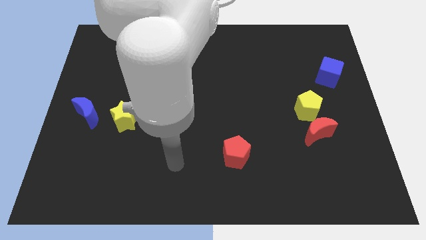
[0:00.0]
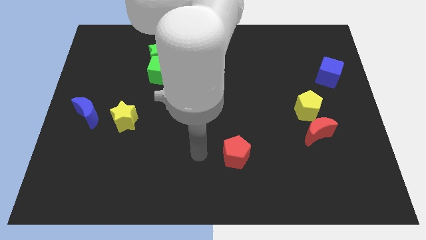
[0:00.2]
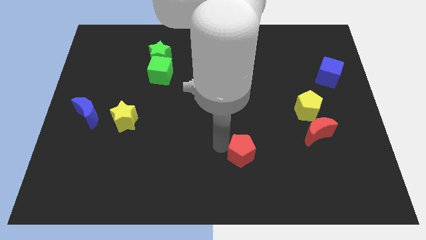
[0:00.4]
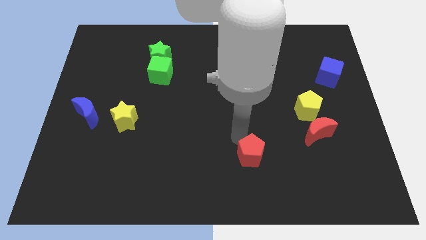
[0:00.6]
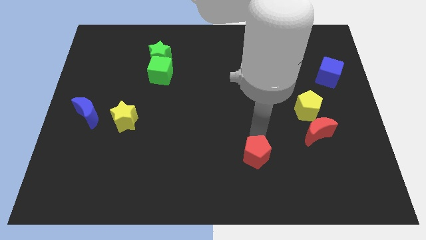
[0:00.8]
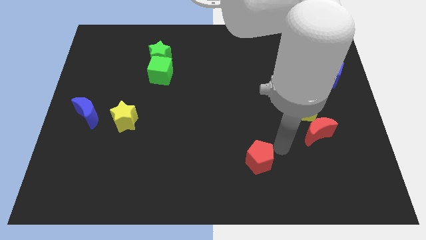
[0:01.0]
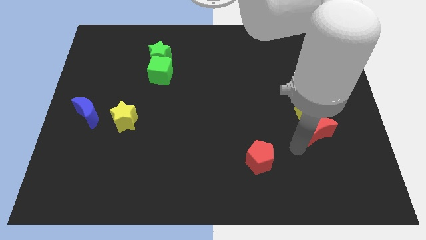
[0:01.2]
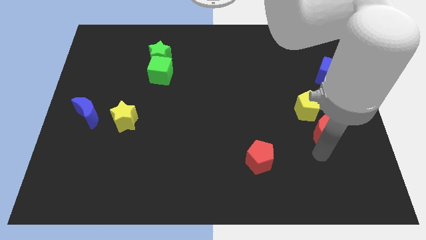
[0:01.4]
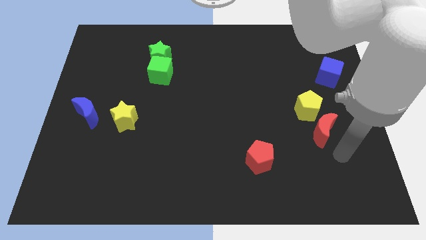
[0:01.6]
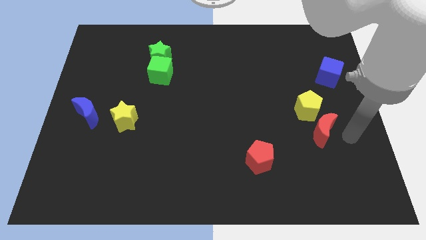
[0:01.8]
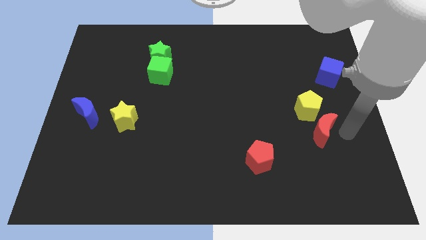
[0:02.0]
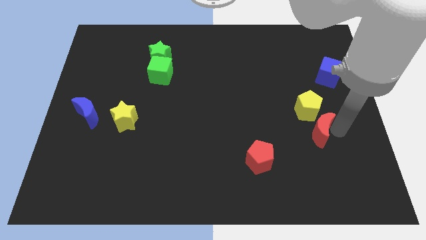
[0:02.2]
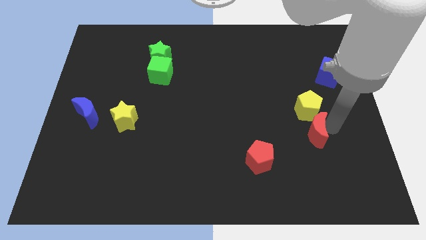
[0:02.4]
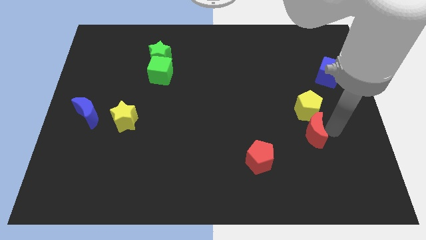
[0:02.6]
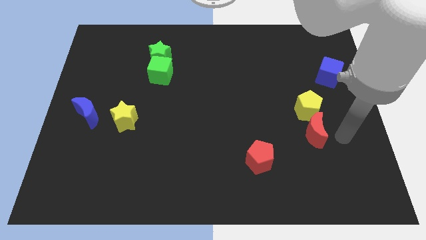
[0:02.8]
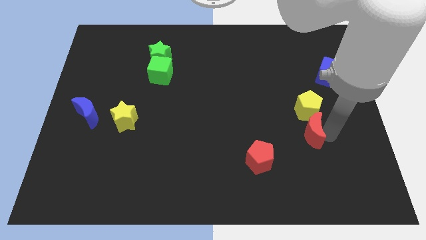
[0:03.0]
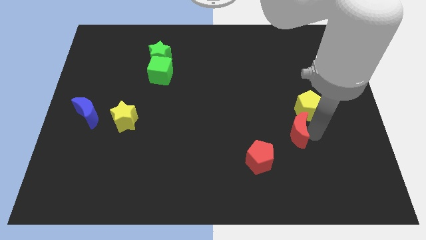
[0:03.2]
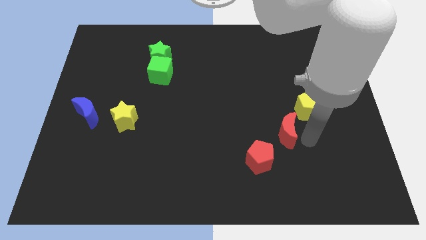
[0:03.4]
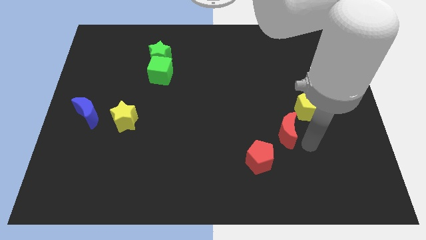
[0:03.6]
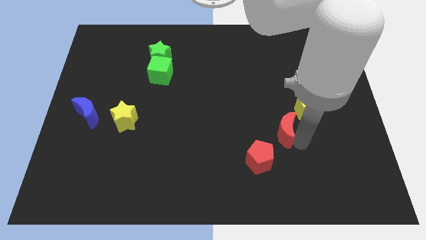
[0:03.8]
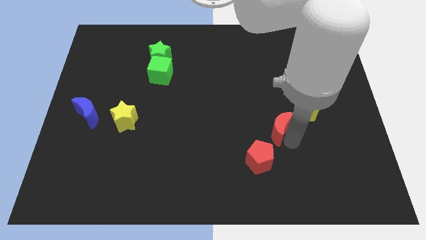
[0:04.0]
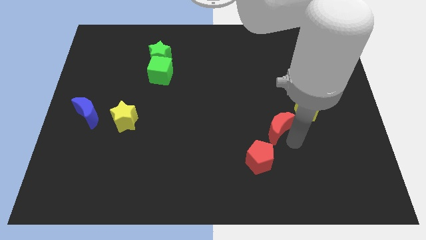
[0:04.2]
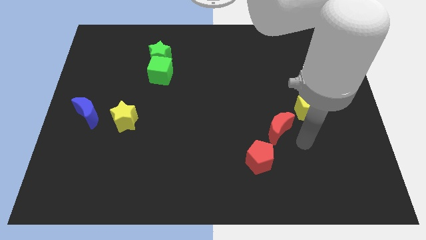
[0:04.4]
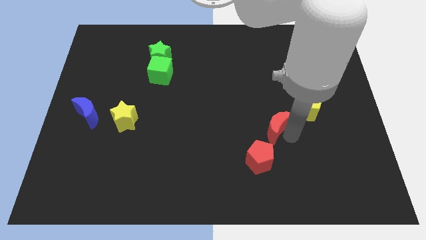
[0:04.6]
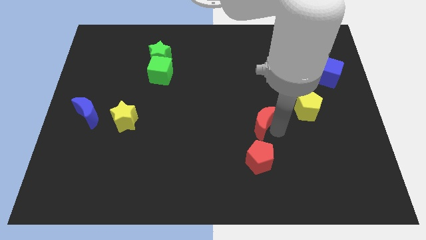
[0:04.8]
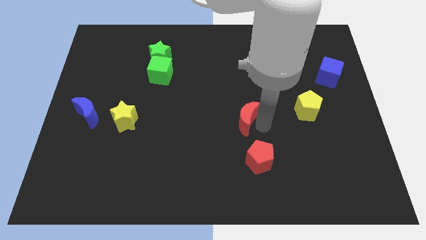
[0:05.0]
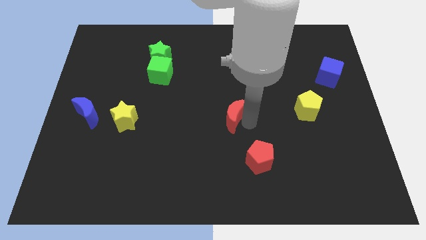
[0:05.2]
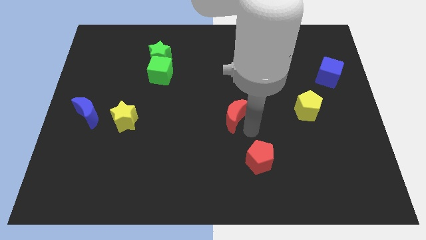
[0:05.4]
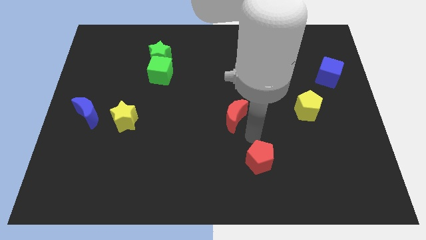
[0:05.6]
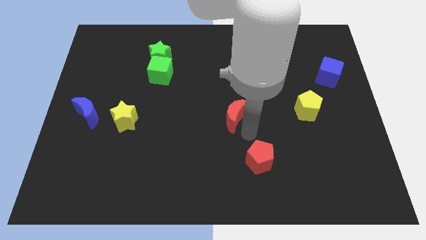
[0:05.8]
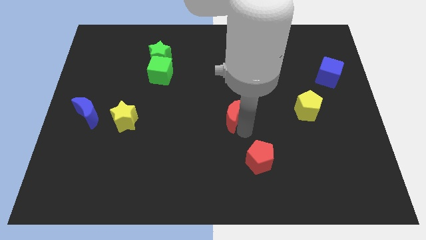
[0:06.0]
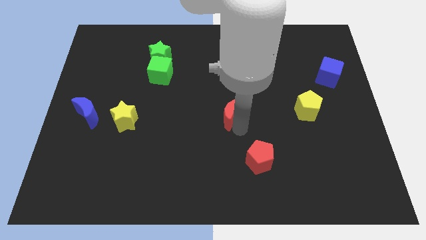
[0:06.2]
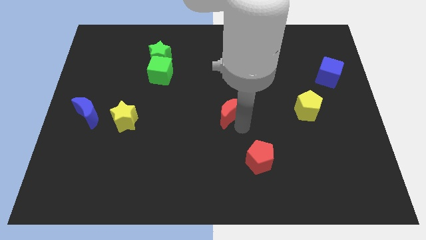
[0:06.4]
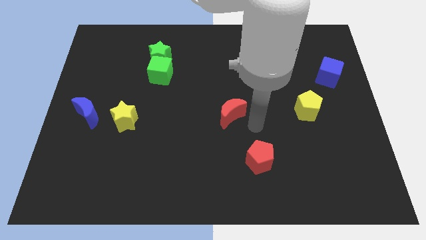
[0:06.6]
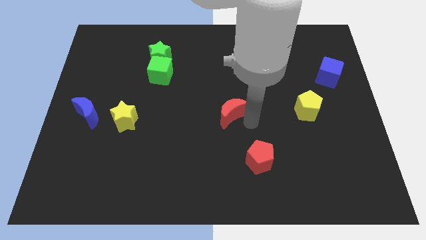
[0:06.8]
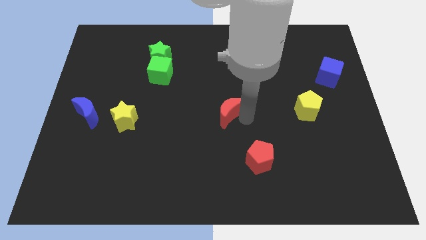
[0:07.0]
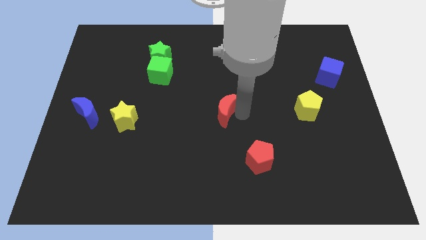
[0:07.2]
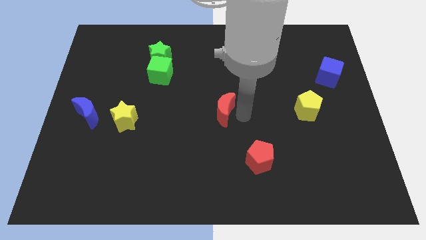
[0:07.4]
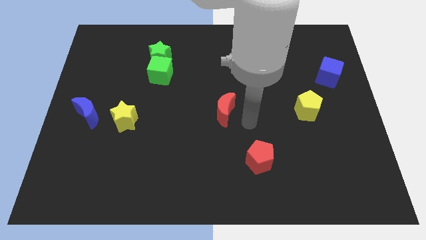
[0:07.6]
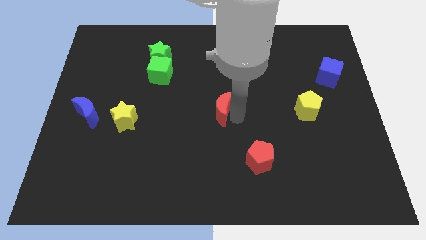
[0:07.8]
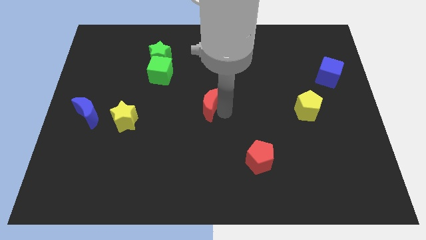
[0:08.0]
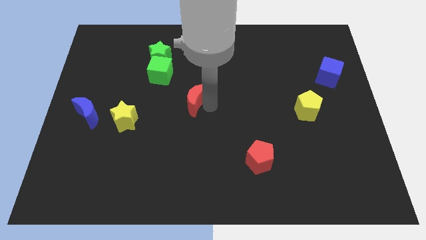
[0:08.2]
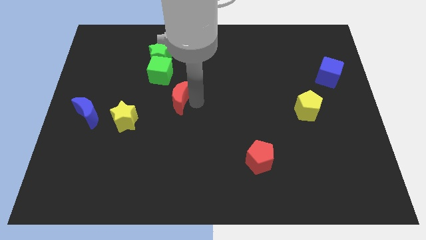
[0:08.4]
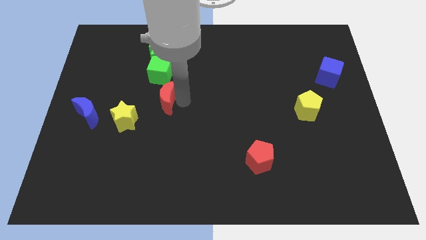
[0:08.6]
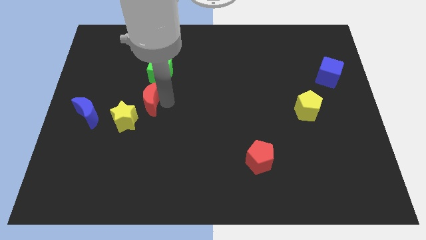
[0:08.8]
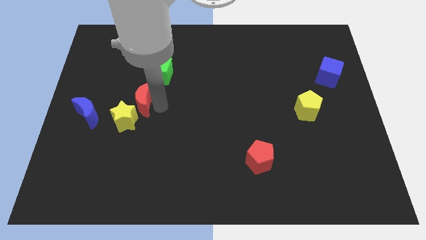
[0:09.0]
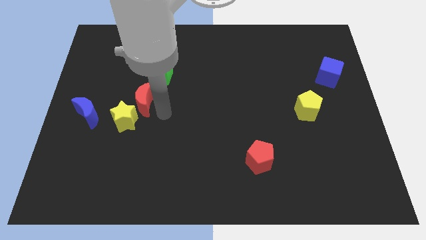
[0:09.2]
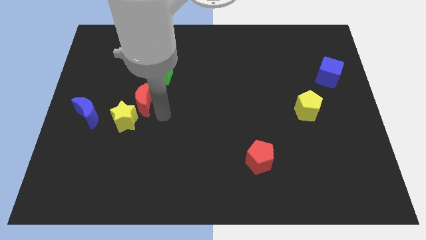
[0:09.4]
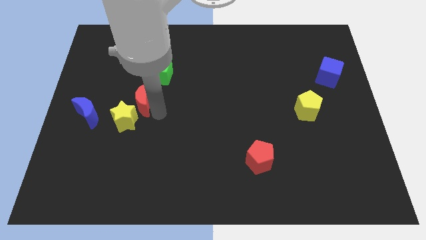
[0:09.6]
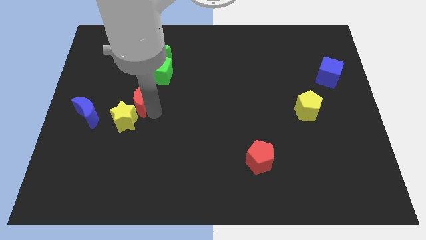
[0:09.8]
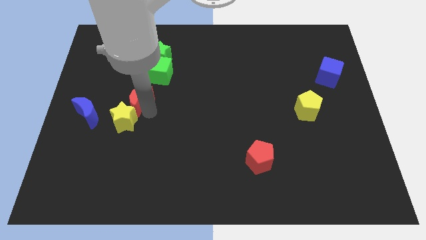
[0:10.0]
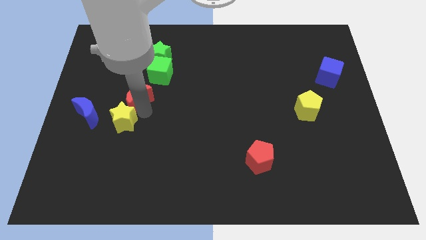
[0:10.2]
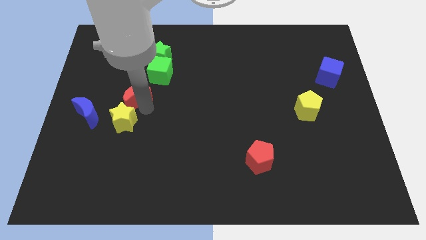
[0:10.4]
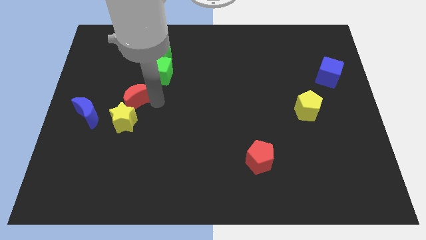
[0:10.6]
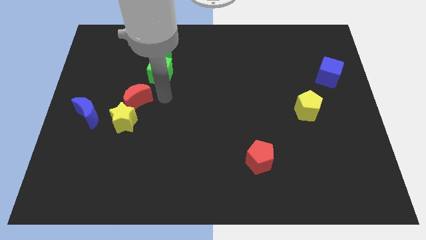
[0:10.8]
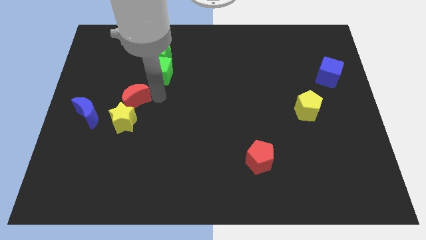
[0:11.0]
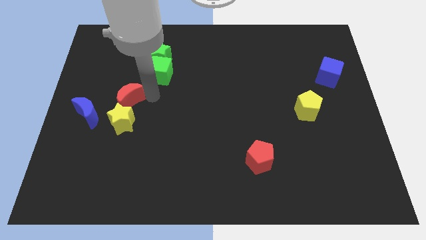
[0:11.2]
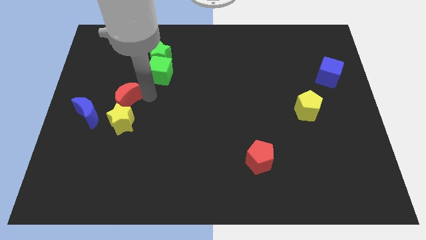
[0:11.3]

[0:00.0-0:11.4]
push the red moon to the top left side of the yellow star

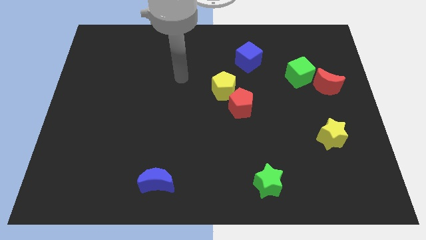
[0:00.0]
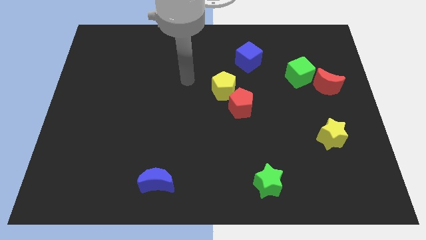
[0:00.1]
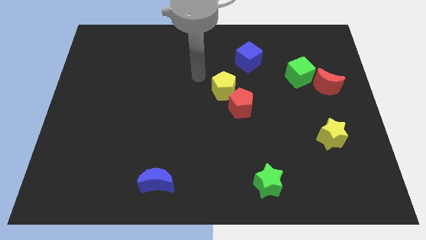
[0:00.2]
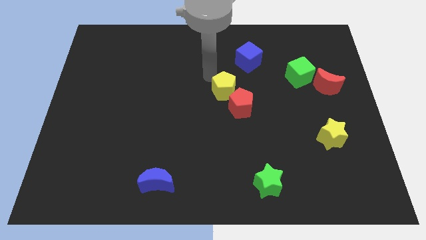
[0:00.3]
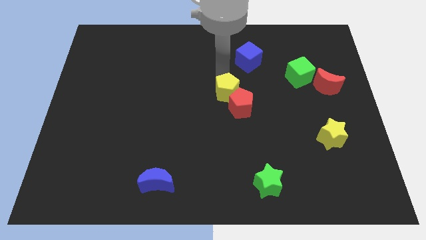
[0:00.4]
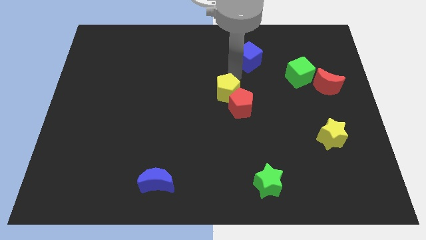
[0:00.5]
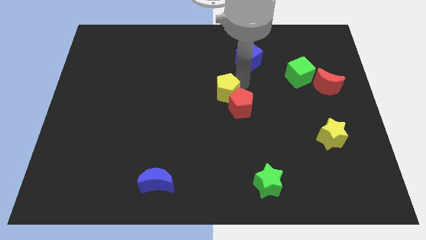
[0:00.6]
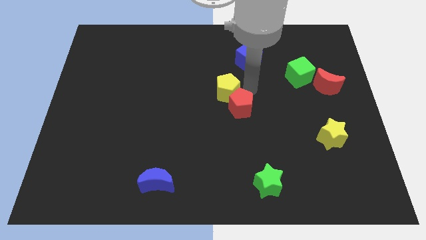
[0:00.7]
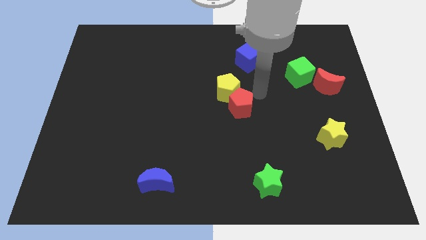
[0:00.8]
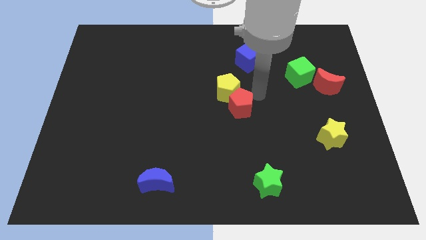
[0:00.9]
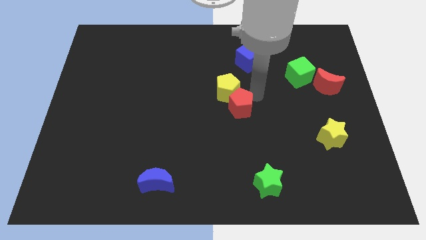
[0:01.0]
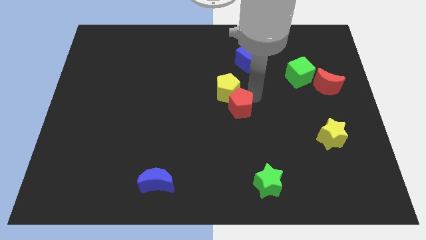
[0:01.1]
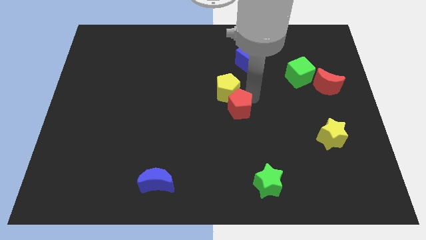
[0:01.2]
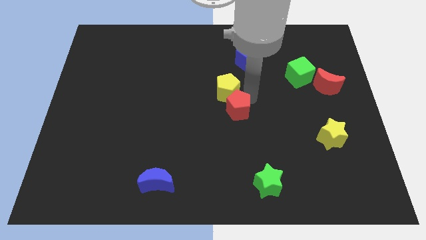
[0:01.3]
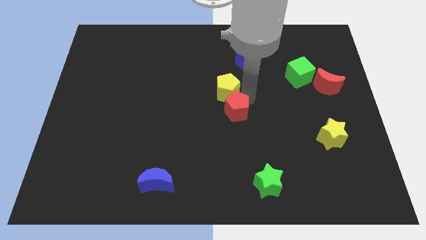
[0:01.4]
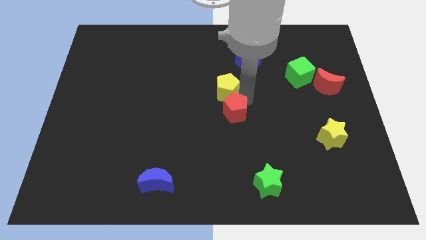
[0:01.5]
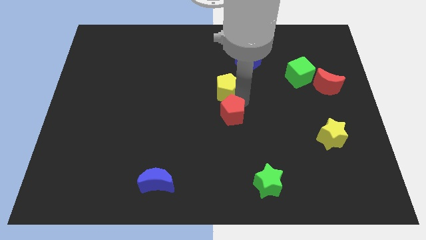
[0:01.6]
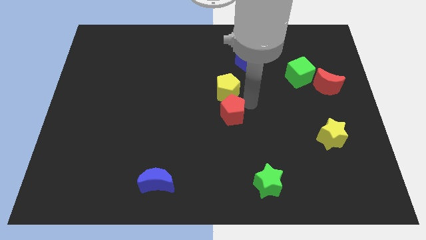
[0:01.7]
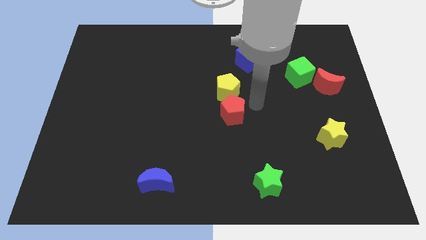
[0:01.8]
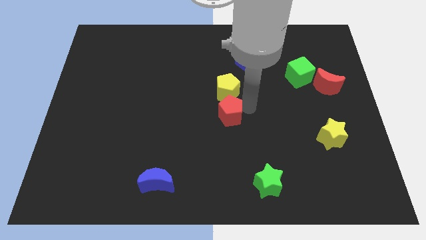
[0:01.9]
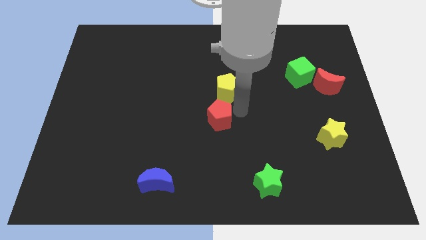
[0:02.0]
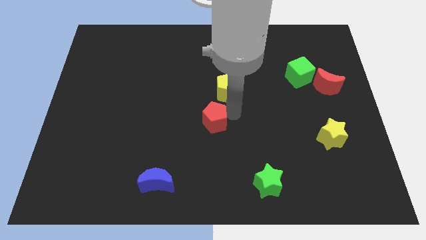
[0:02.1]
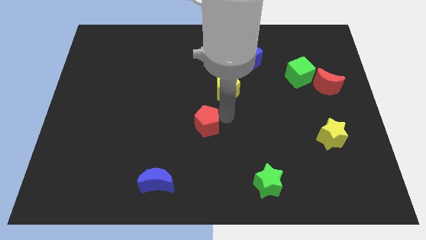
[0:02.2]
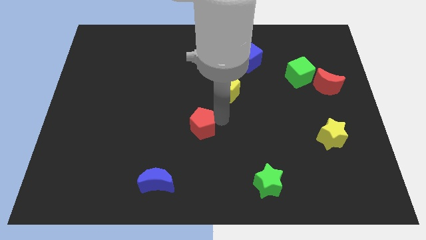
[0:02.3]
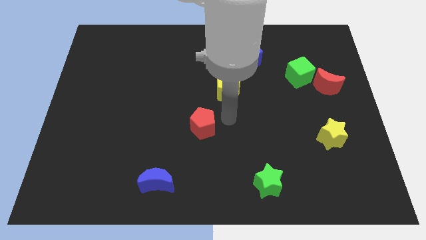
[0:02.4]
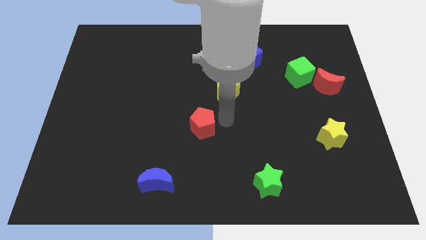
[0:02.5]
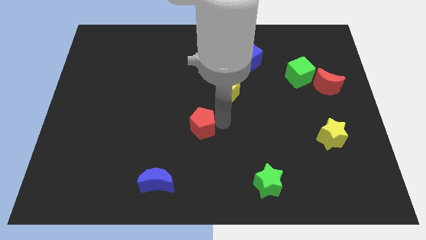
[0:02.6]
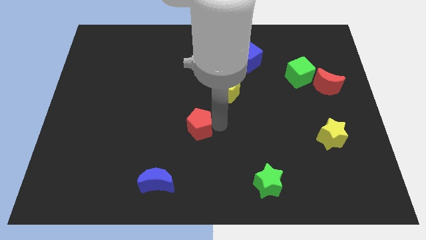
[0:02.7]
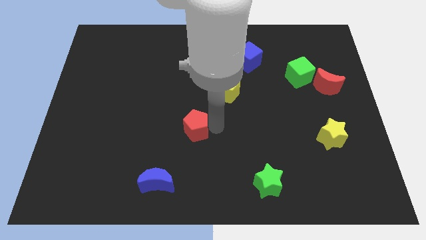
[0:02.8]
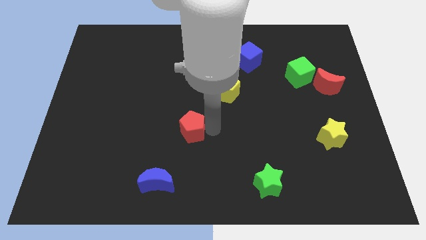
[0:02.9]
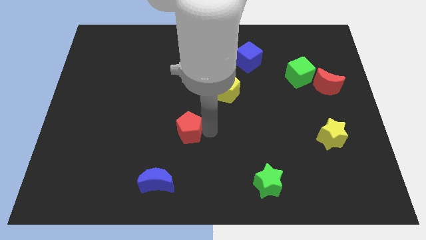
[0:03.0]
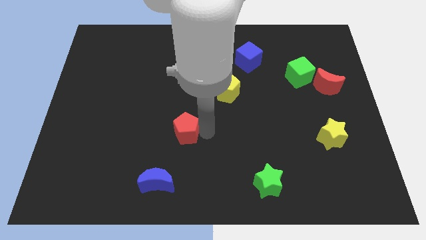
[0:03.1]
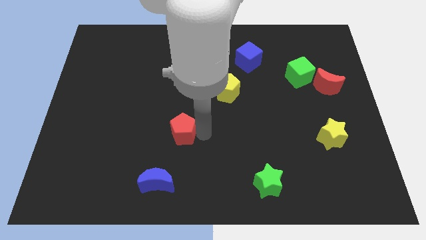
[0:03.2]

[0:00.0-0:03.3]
slide the red pentagon above the blue moon
